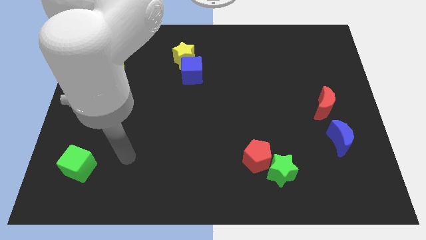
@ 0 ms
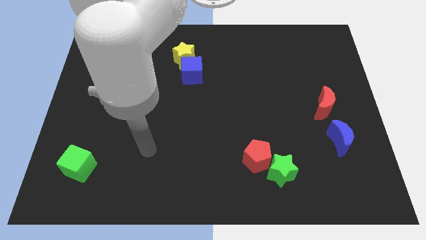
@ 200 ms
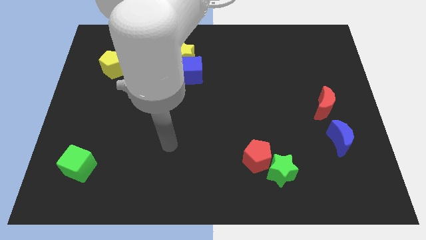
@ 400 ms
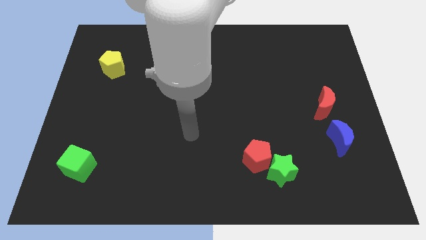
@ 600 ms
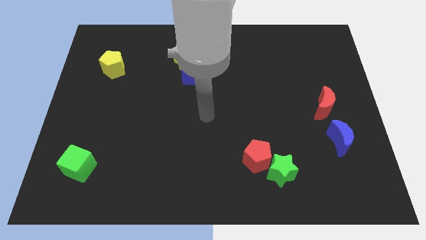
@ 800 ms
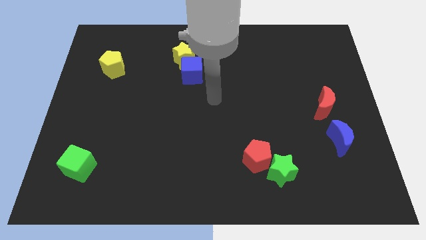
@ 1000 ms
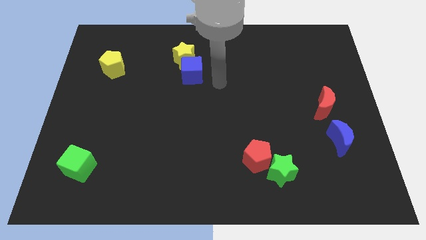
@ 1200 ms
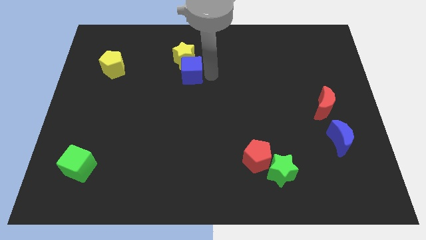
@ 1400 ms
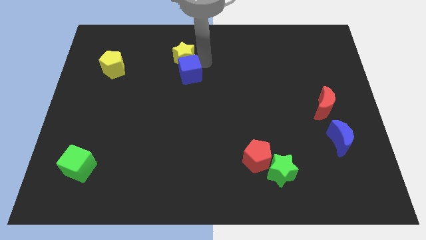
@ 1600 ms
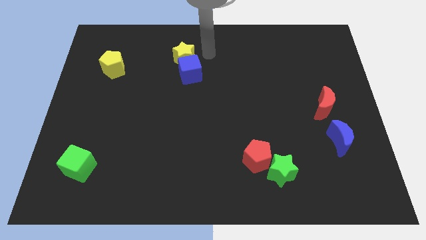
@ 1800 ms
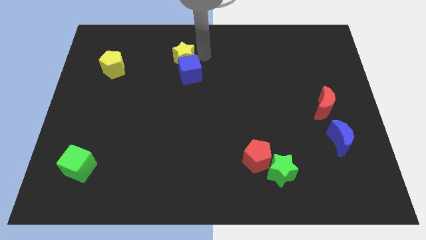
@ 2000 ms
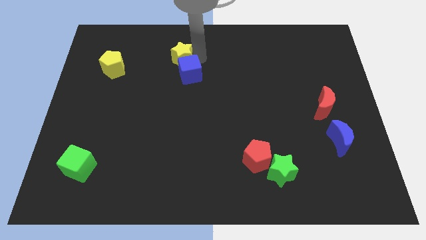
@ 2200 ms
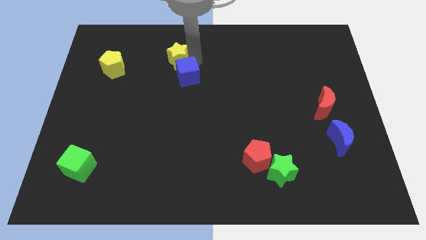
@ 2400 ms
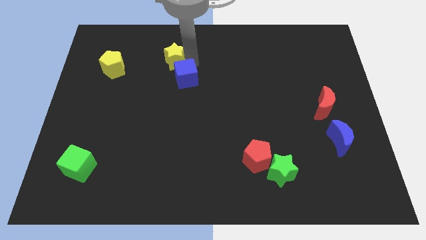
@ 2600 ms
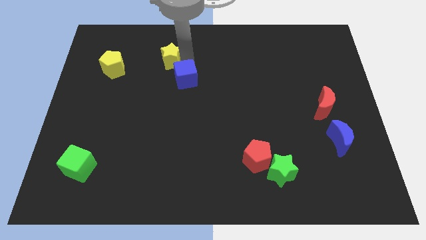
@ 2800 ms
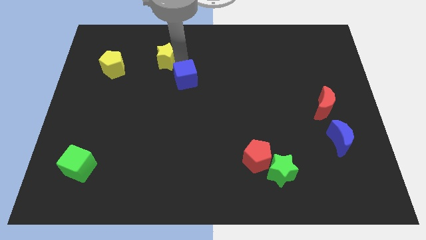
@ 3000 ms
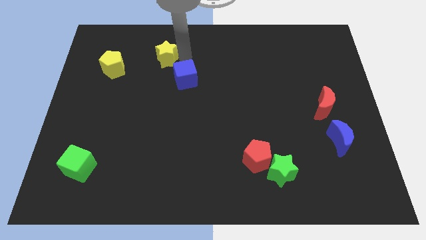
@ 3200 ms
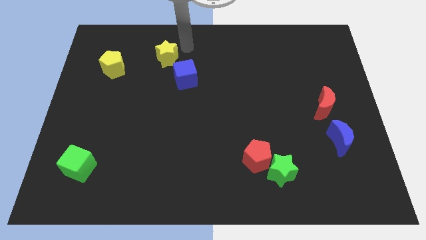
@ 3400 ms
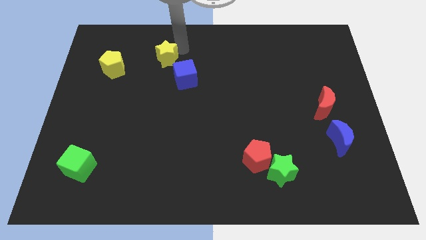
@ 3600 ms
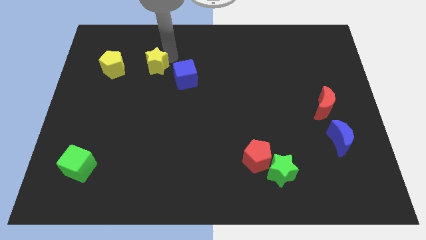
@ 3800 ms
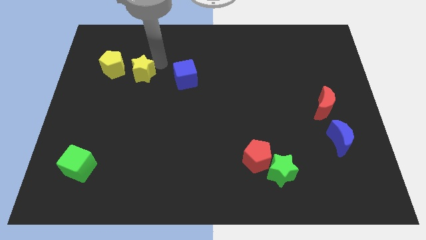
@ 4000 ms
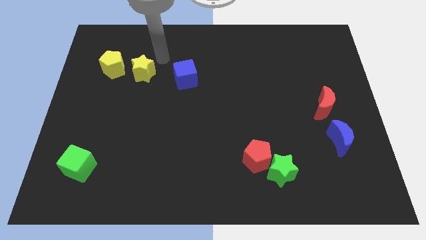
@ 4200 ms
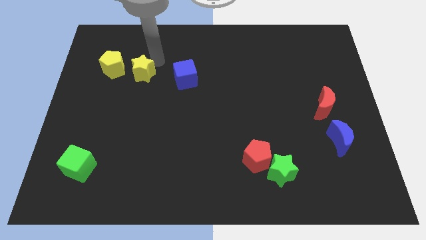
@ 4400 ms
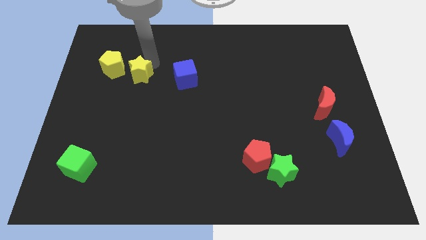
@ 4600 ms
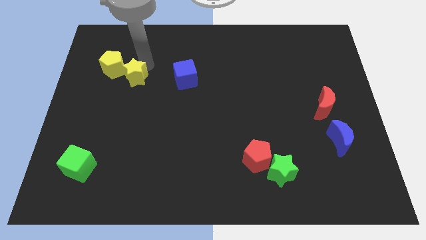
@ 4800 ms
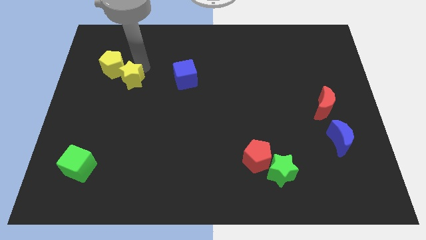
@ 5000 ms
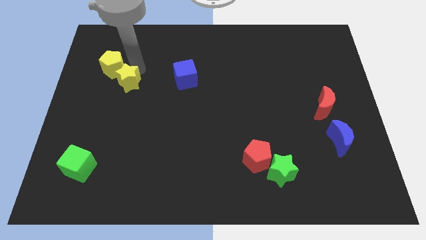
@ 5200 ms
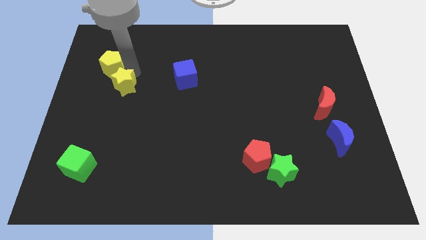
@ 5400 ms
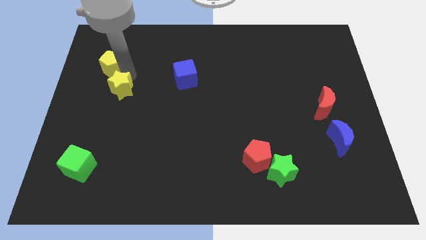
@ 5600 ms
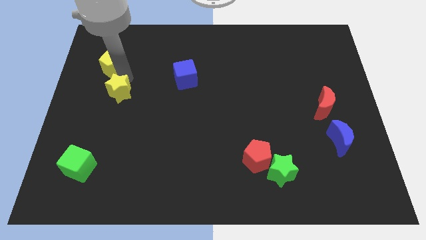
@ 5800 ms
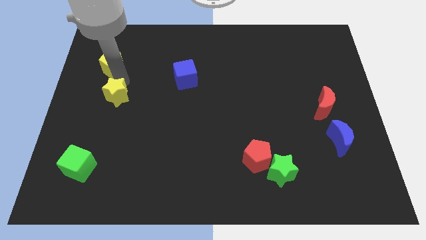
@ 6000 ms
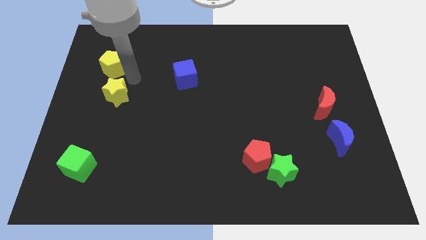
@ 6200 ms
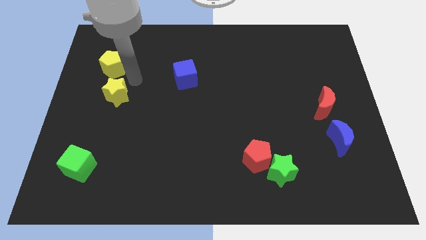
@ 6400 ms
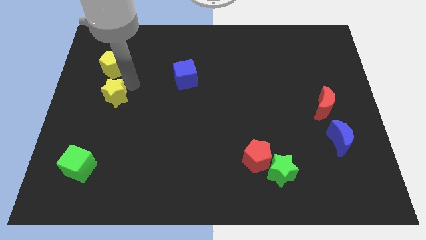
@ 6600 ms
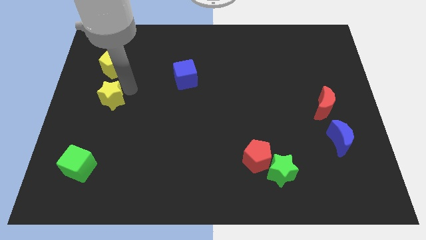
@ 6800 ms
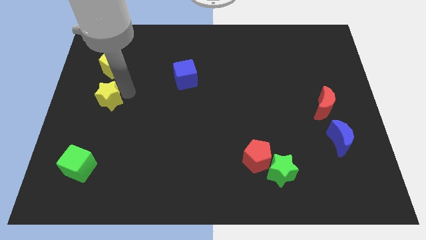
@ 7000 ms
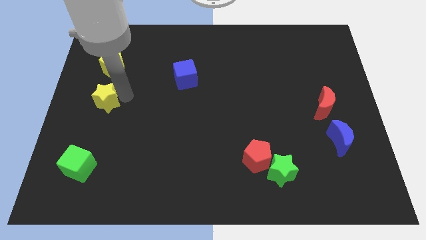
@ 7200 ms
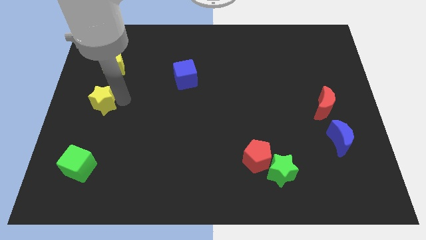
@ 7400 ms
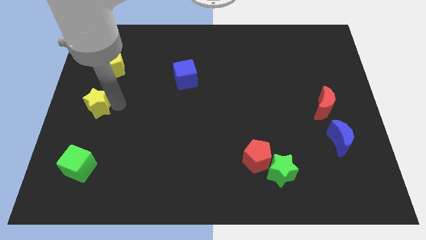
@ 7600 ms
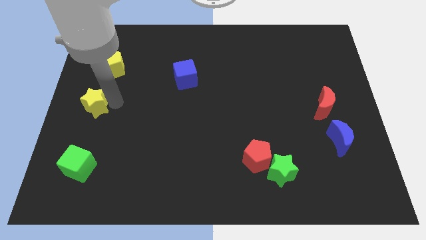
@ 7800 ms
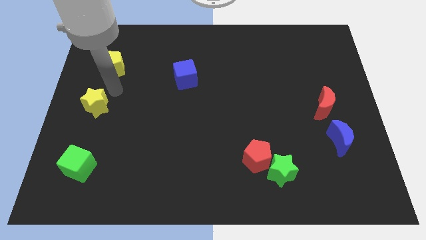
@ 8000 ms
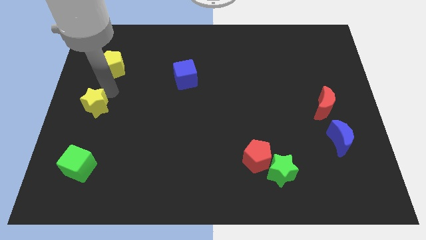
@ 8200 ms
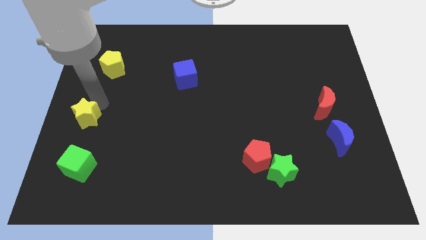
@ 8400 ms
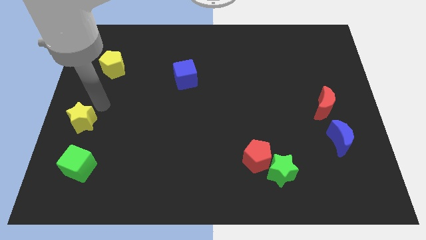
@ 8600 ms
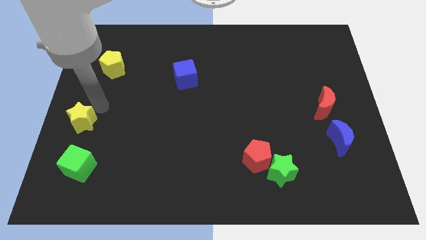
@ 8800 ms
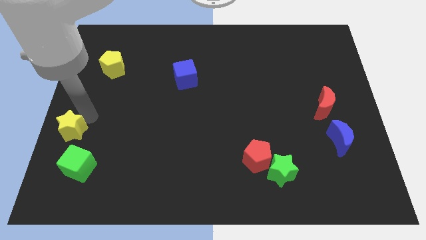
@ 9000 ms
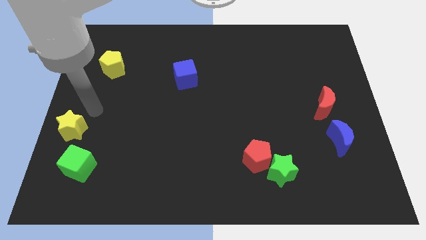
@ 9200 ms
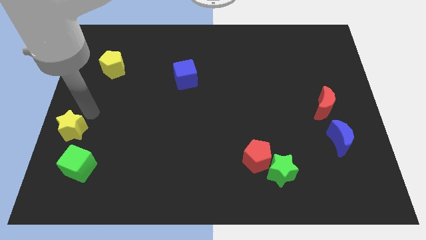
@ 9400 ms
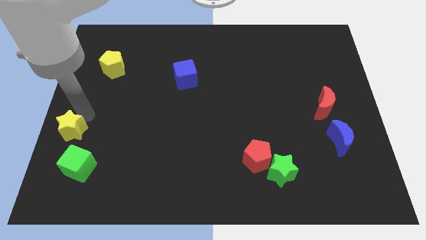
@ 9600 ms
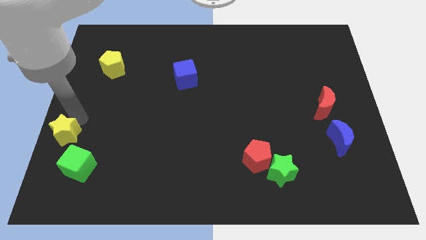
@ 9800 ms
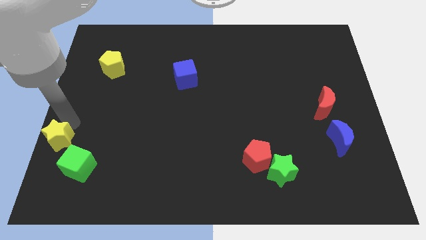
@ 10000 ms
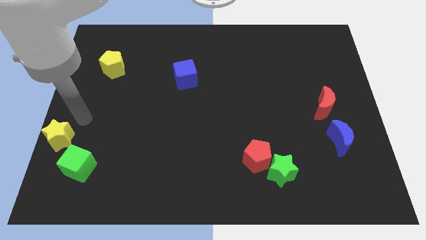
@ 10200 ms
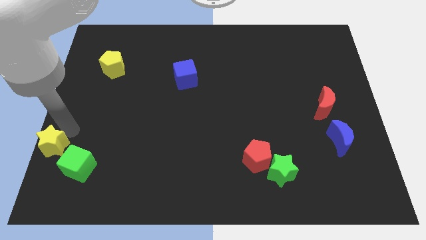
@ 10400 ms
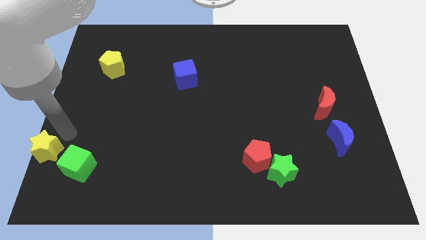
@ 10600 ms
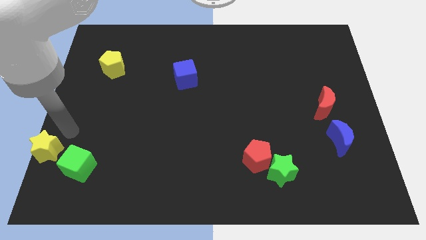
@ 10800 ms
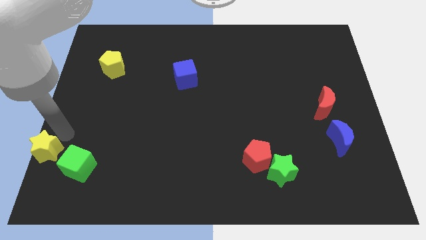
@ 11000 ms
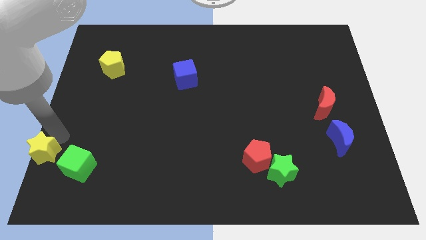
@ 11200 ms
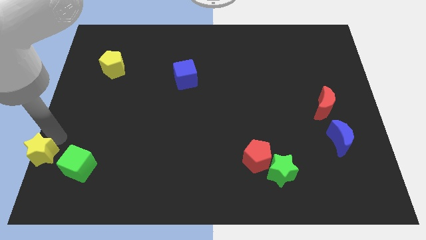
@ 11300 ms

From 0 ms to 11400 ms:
slide the yellow star to the bottom left of the board

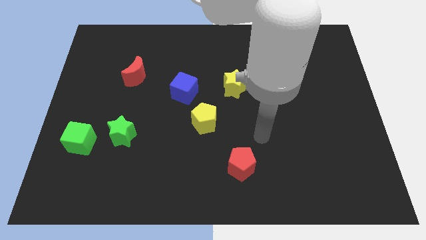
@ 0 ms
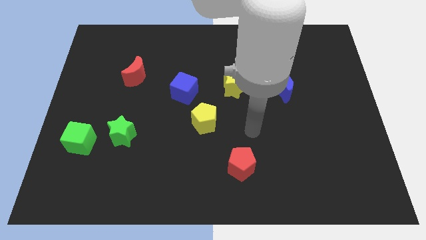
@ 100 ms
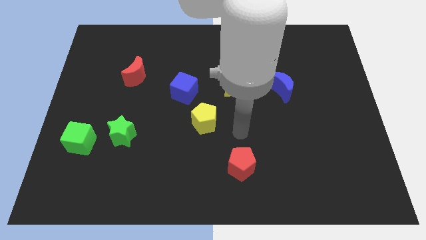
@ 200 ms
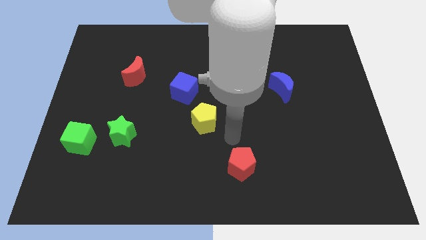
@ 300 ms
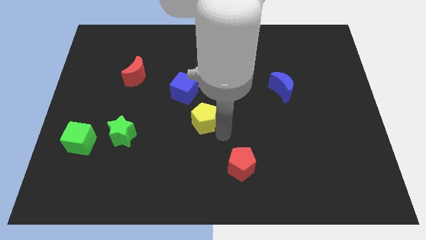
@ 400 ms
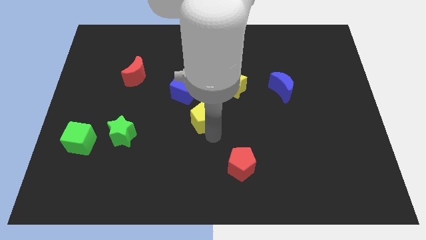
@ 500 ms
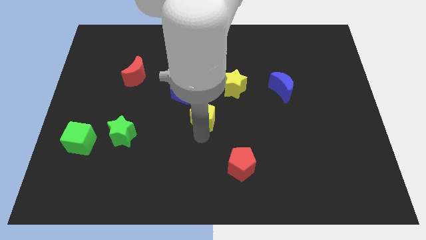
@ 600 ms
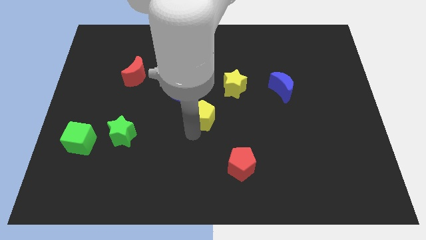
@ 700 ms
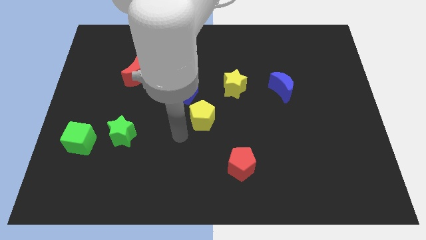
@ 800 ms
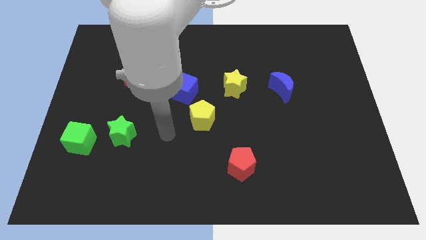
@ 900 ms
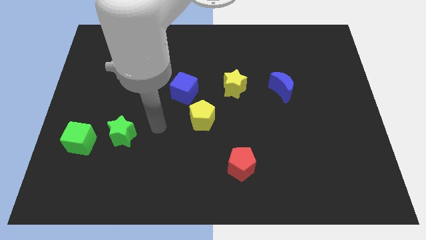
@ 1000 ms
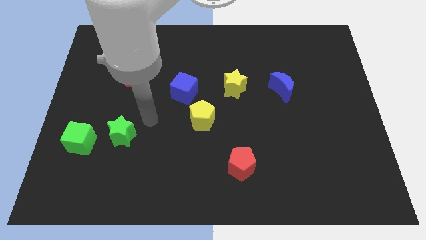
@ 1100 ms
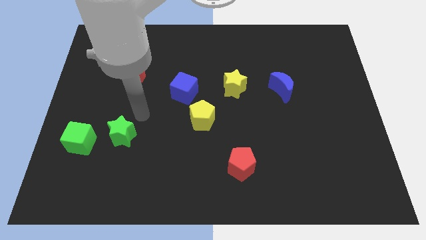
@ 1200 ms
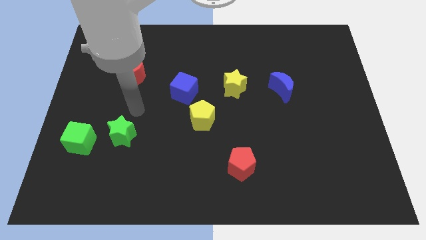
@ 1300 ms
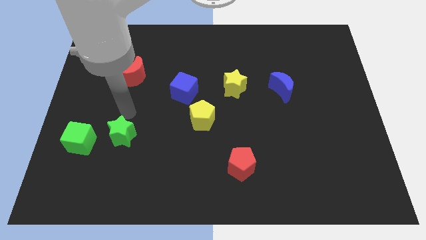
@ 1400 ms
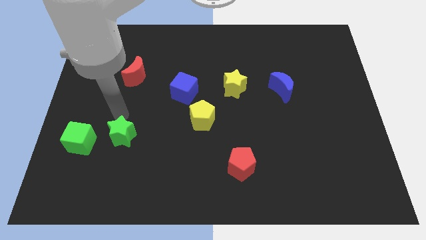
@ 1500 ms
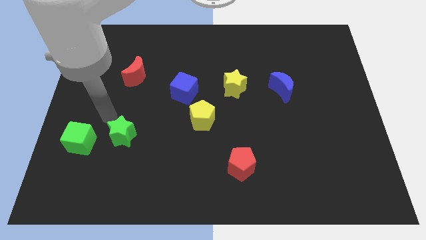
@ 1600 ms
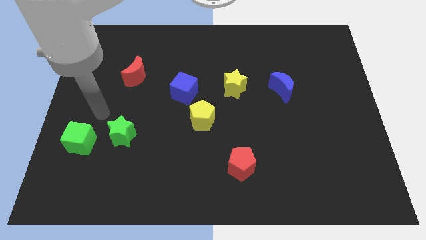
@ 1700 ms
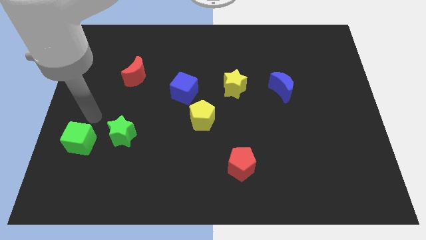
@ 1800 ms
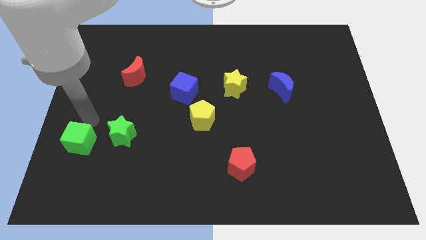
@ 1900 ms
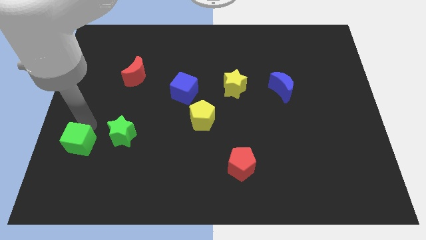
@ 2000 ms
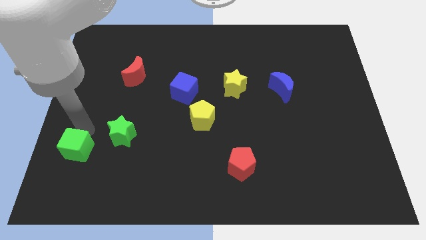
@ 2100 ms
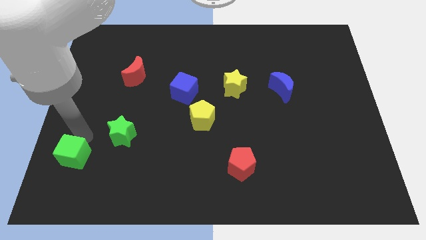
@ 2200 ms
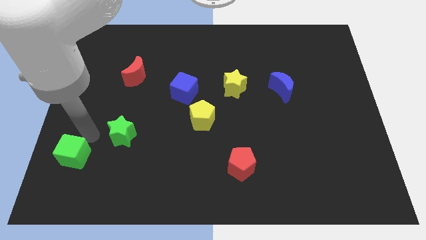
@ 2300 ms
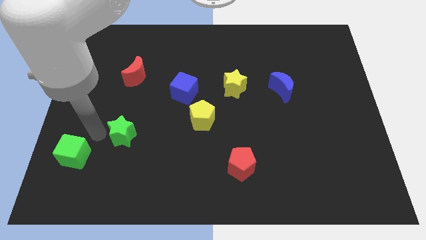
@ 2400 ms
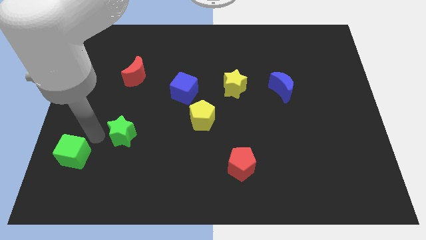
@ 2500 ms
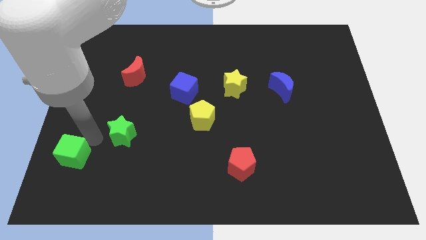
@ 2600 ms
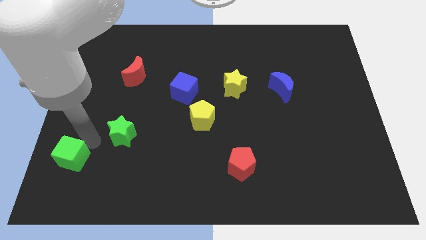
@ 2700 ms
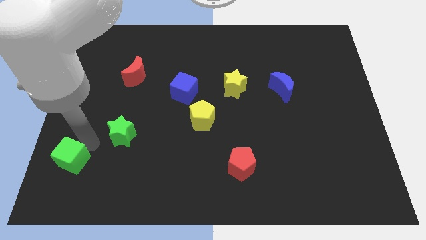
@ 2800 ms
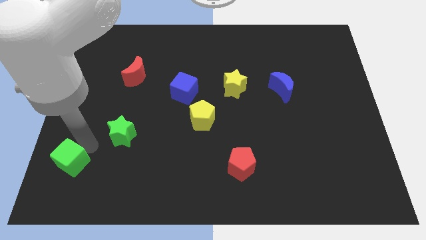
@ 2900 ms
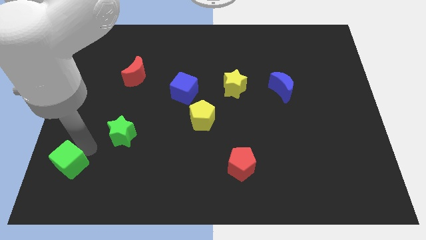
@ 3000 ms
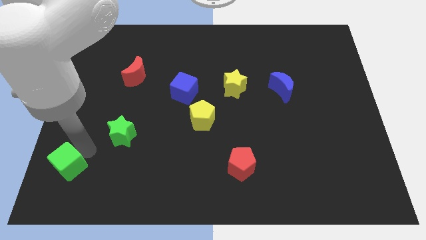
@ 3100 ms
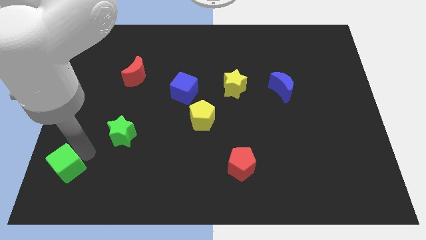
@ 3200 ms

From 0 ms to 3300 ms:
put the green cube to the bottom left corner
